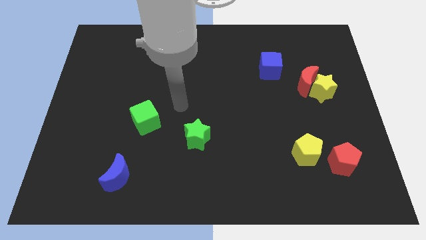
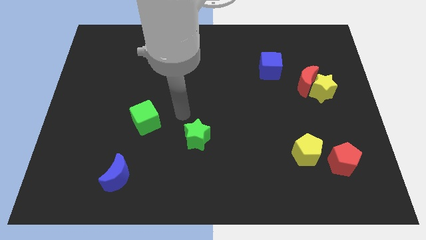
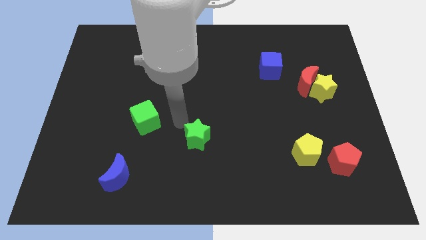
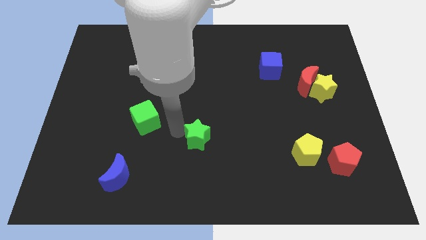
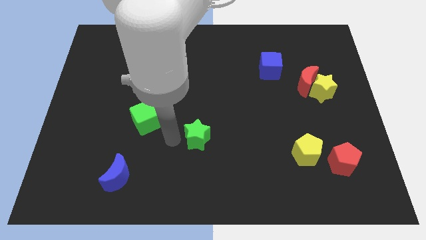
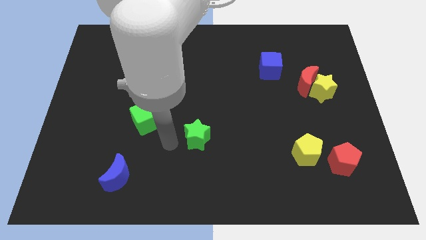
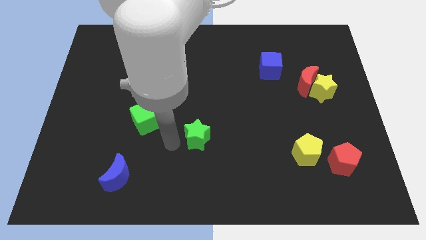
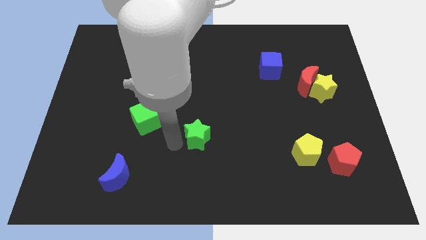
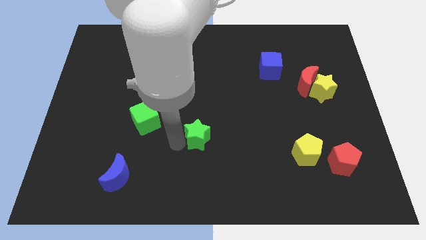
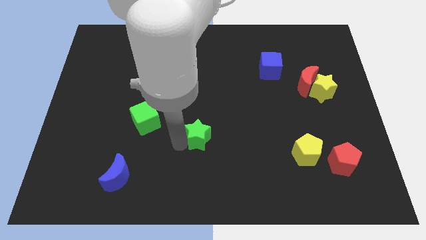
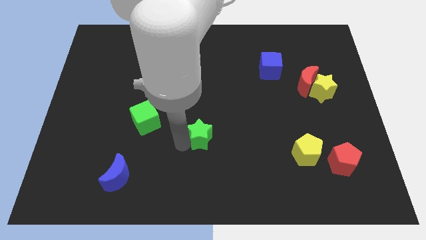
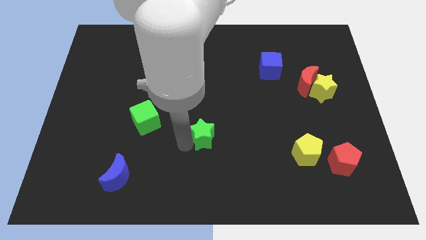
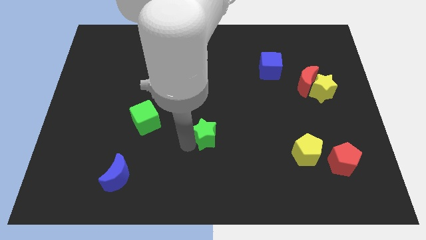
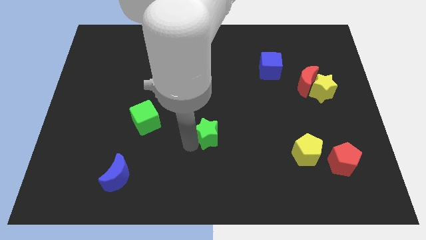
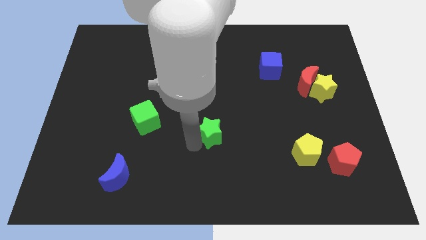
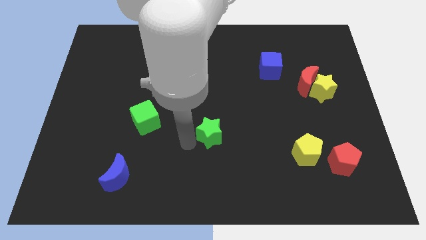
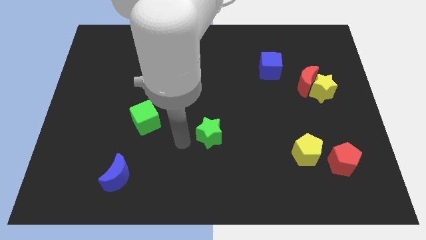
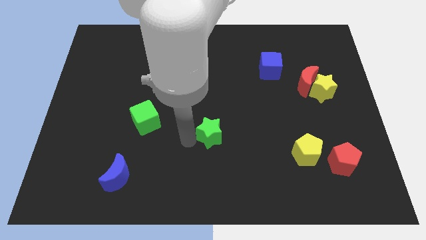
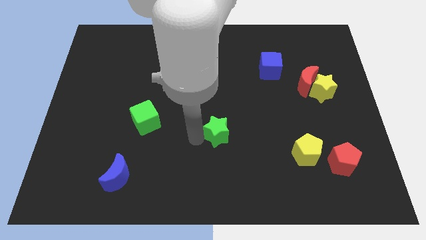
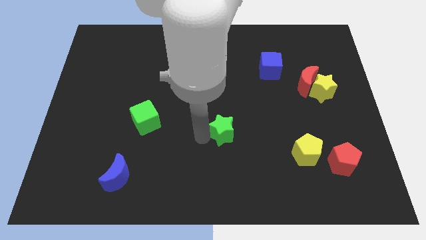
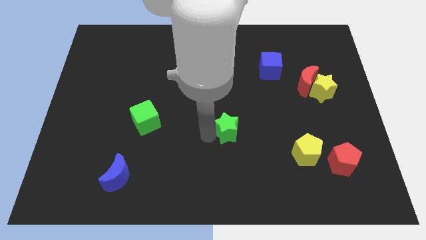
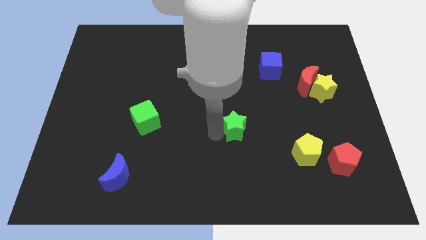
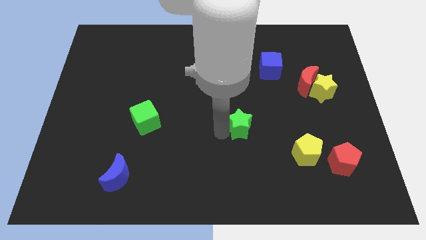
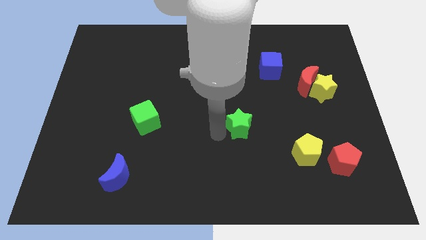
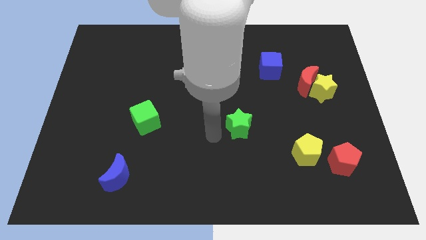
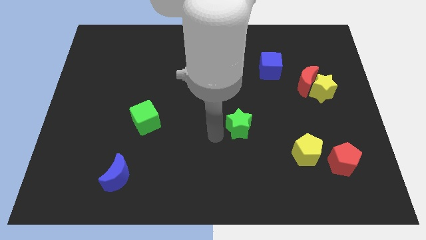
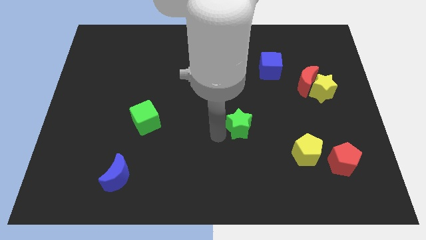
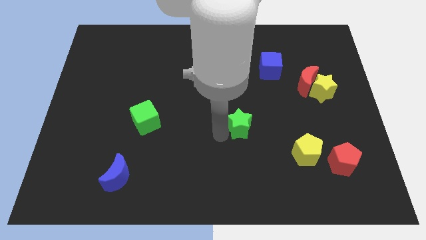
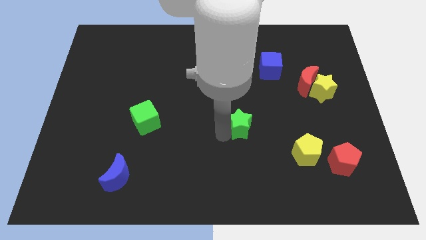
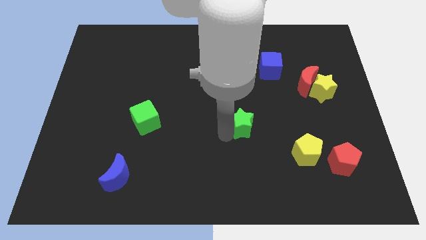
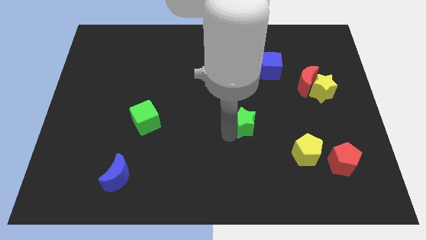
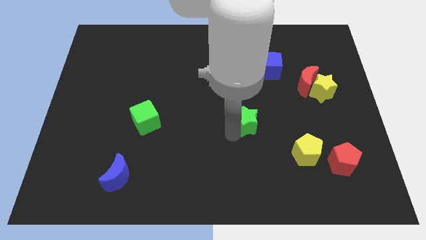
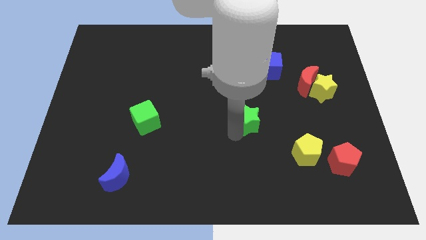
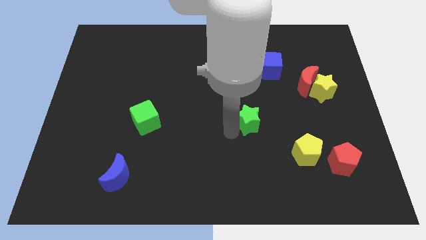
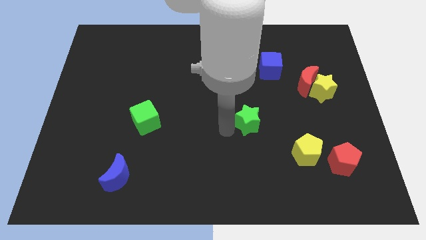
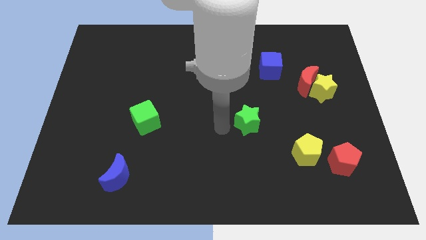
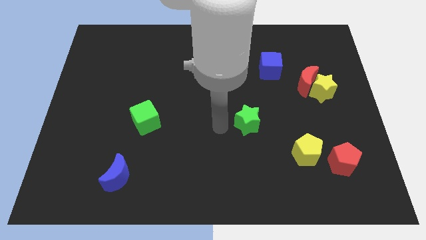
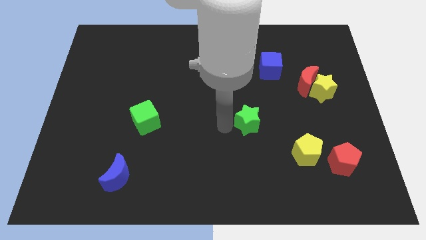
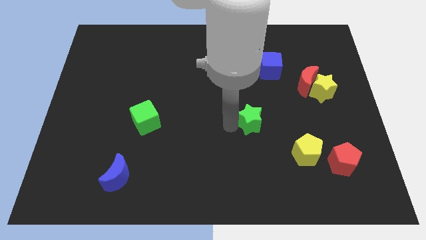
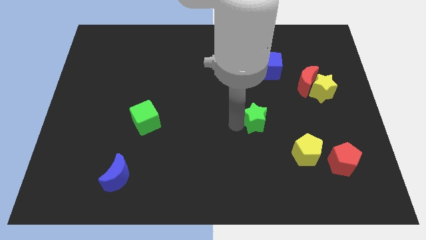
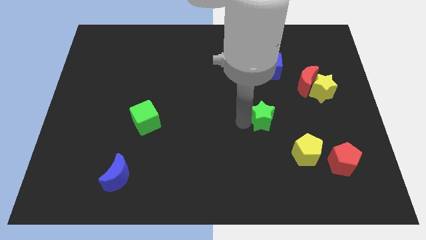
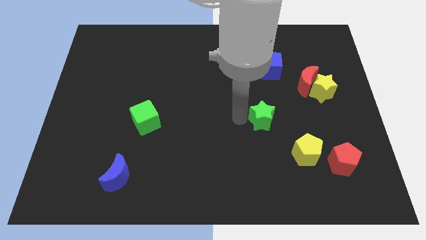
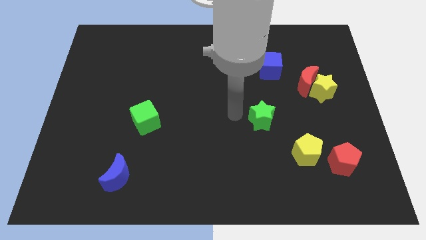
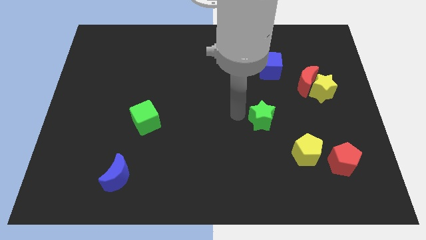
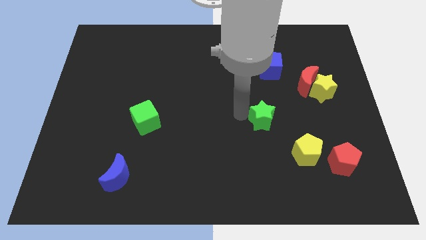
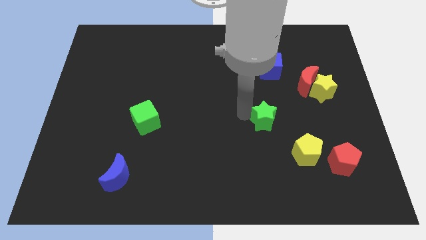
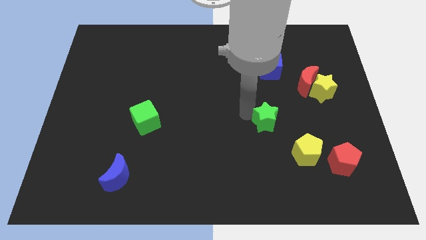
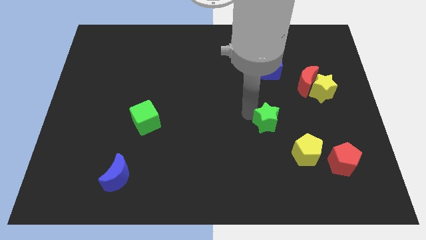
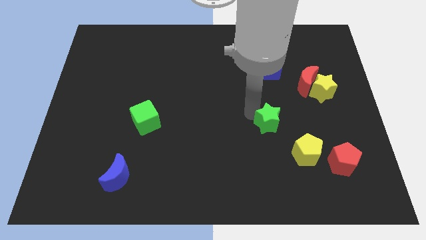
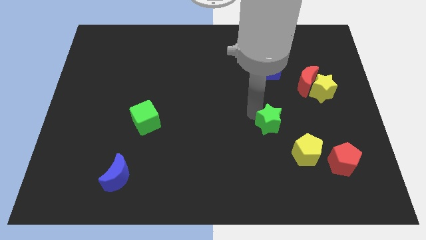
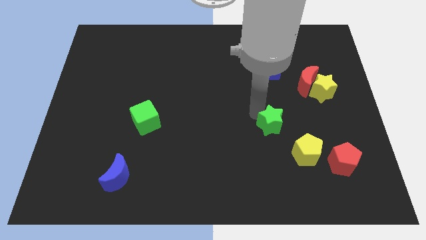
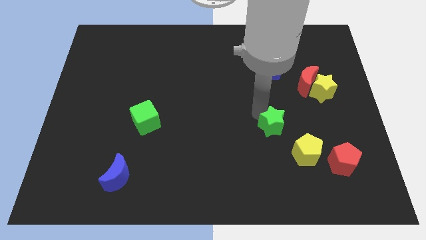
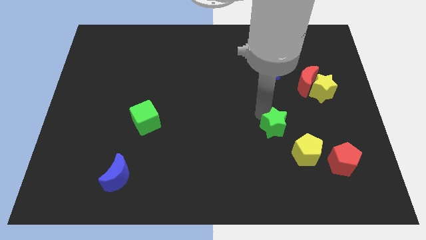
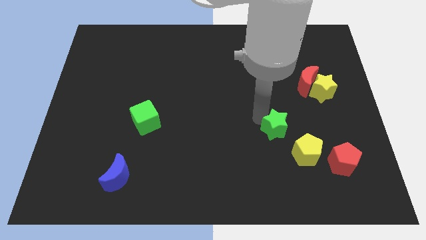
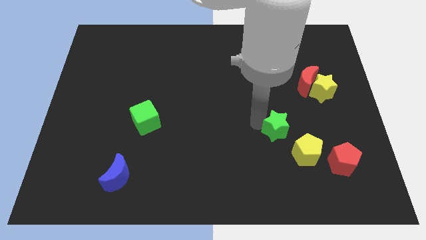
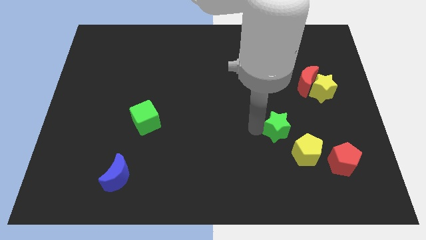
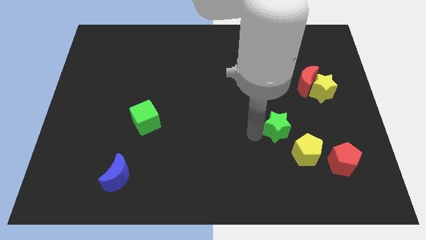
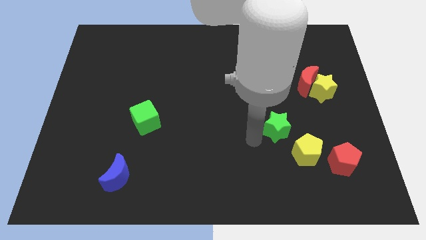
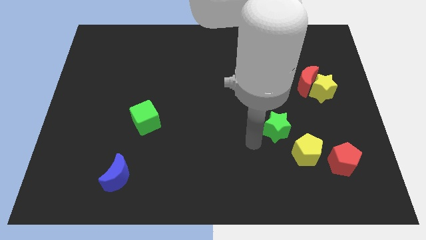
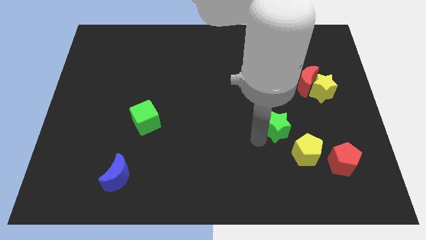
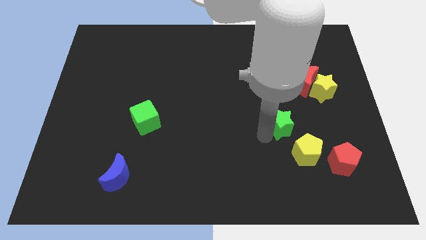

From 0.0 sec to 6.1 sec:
put the green star to the top side of the yellow pentagon

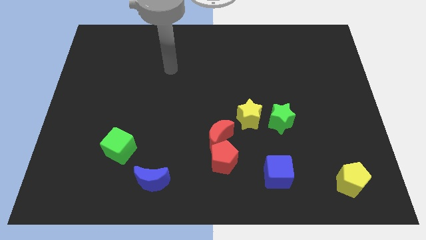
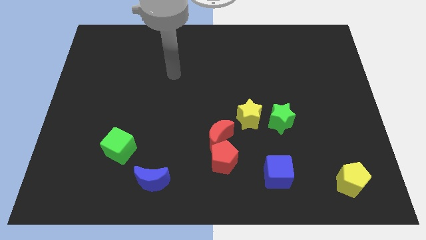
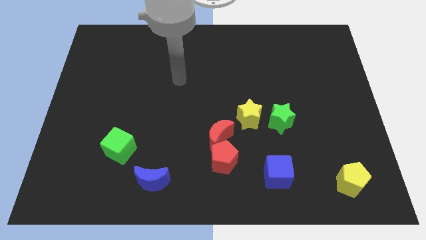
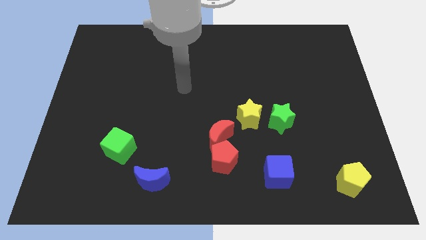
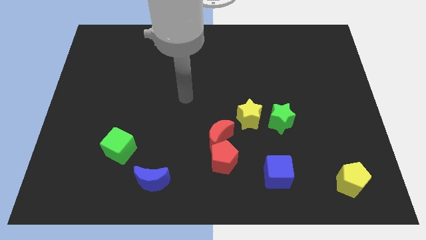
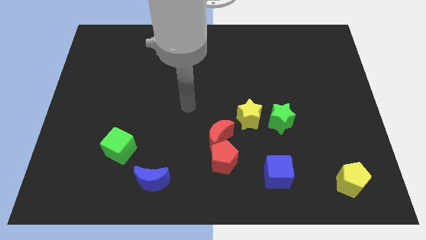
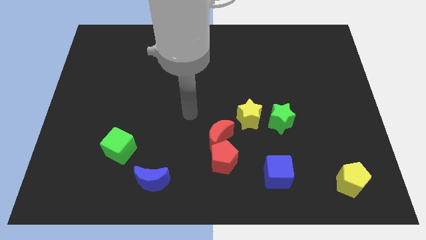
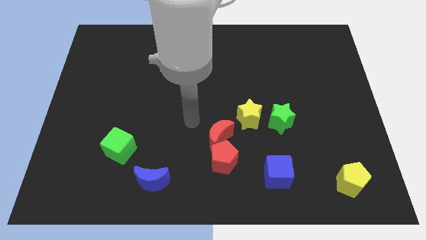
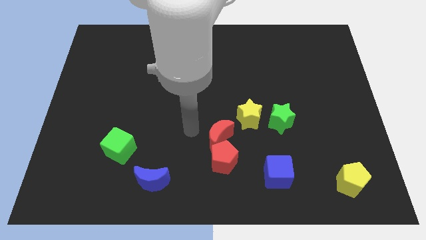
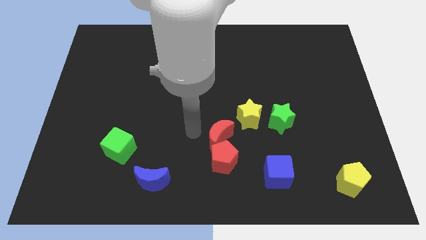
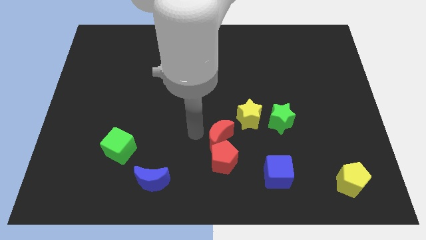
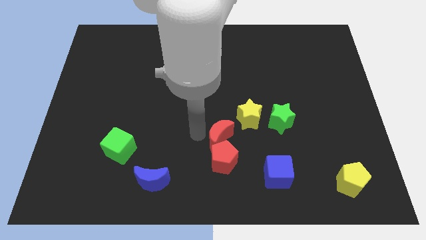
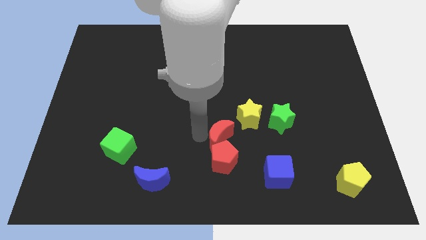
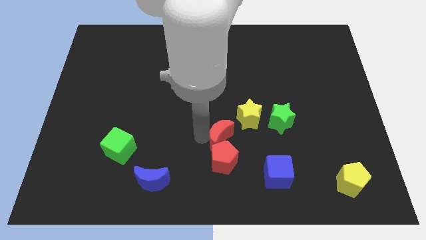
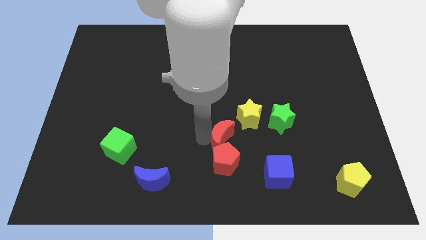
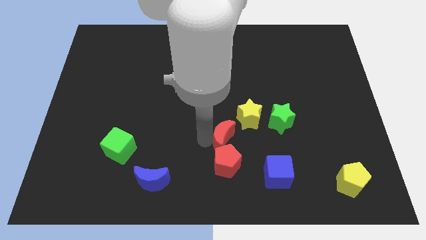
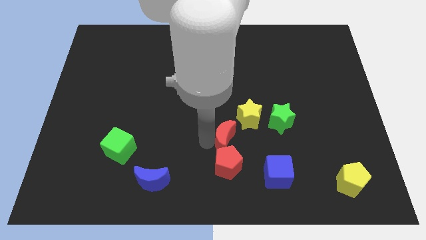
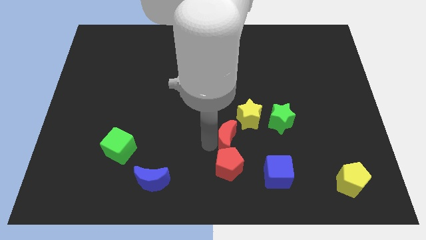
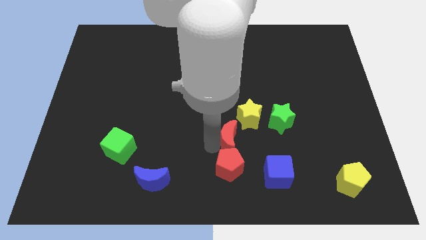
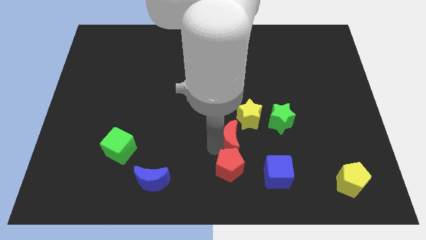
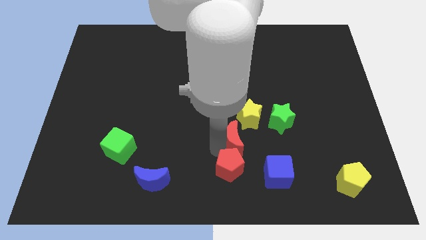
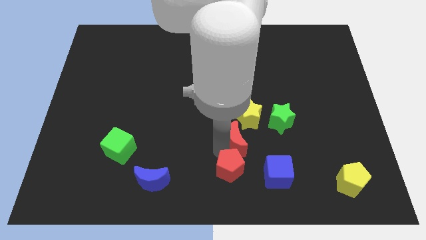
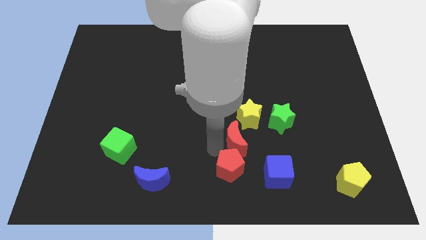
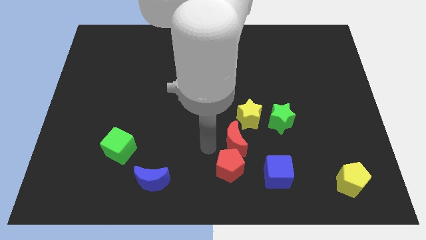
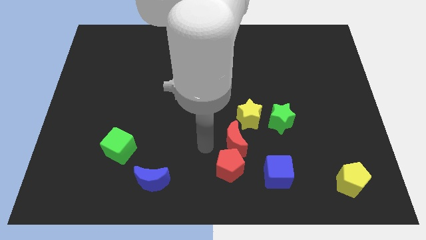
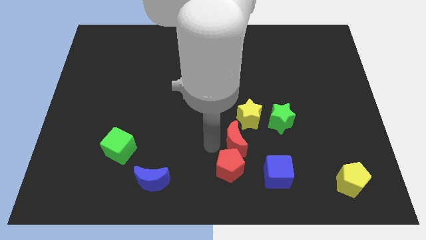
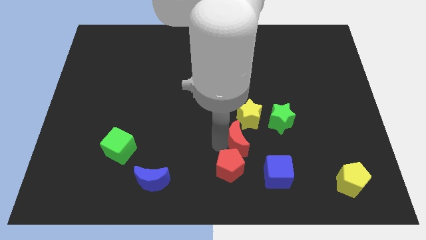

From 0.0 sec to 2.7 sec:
slide the red moon to the bottom left of the green star
